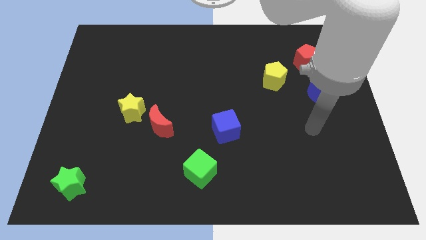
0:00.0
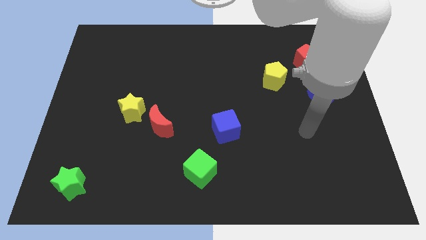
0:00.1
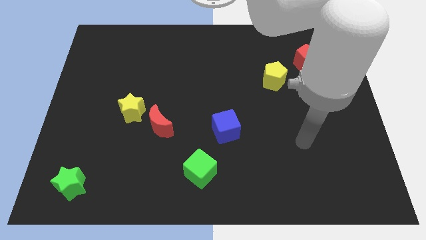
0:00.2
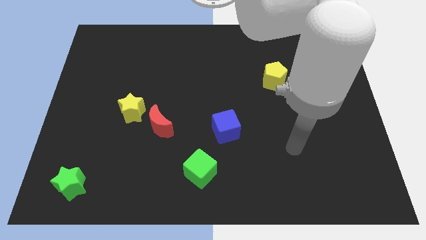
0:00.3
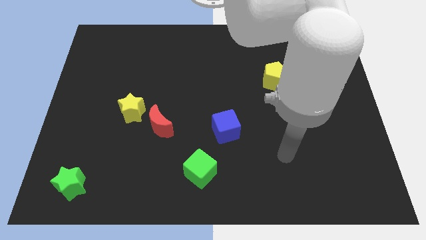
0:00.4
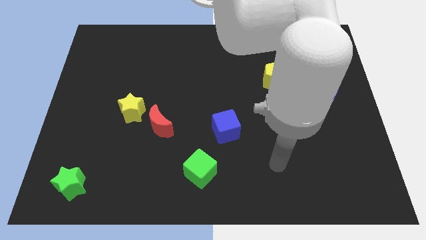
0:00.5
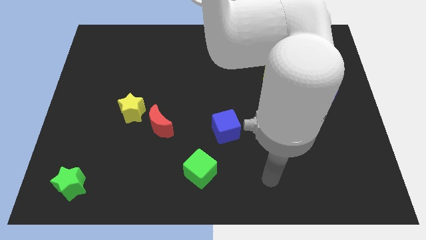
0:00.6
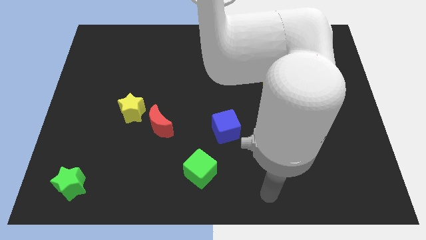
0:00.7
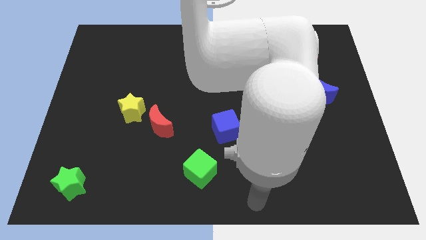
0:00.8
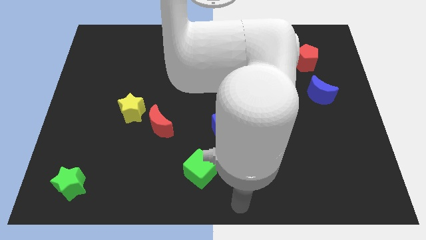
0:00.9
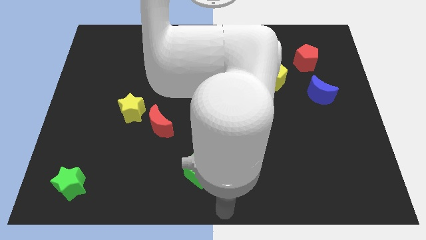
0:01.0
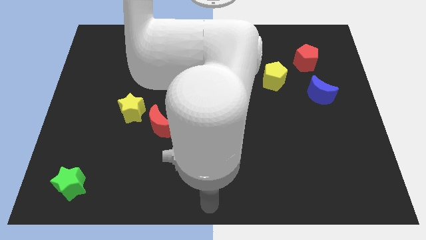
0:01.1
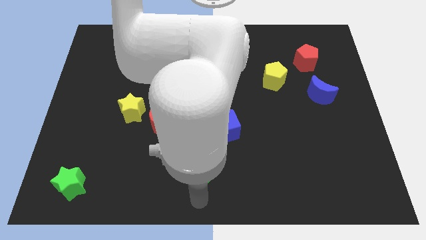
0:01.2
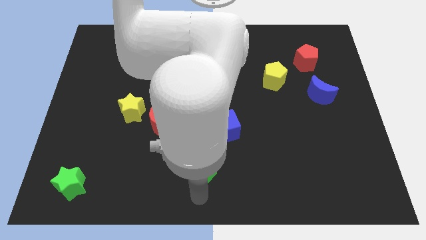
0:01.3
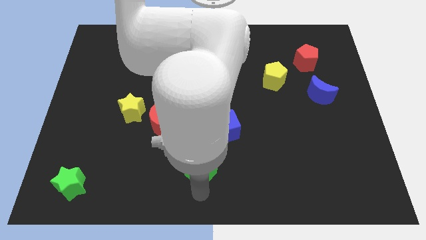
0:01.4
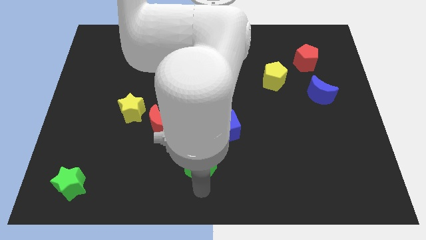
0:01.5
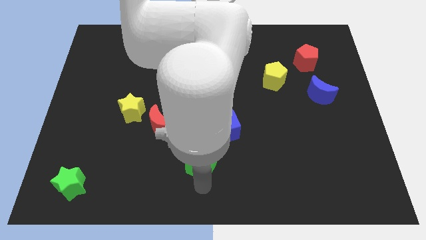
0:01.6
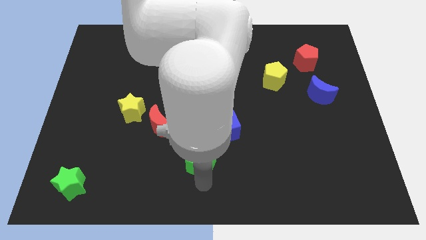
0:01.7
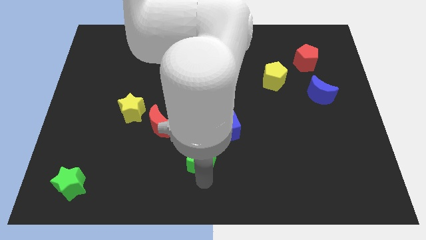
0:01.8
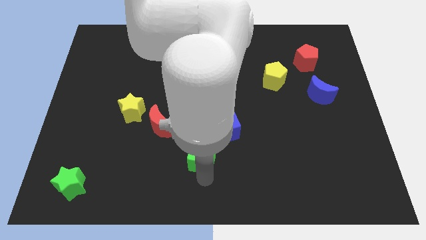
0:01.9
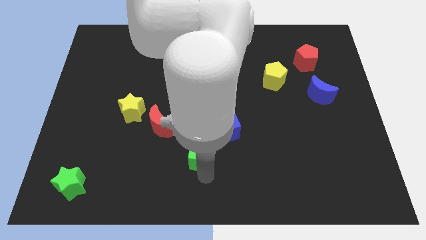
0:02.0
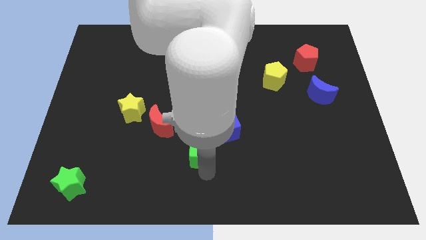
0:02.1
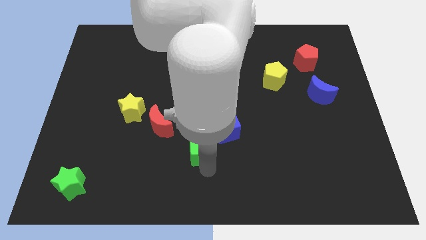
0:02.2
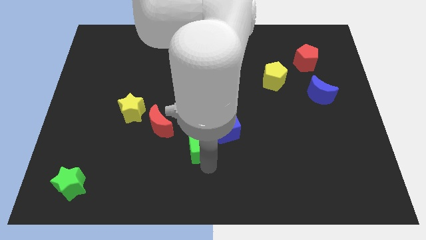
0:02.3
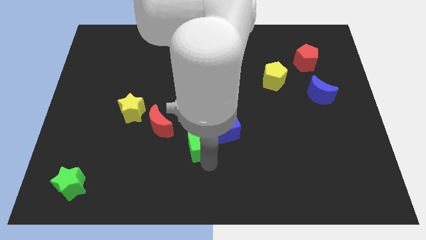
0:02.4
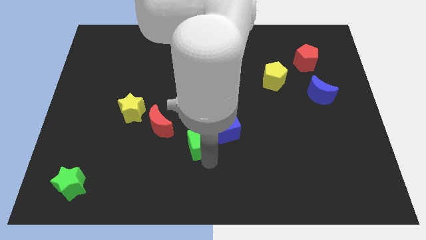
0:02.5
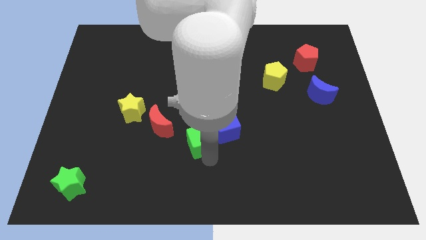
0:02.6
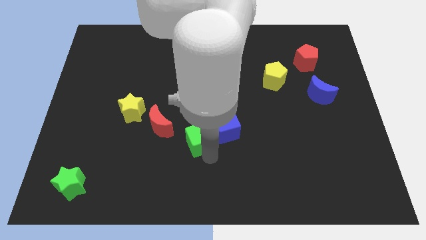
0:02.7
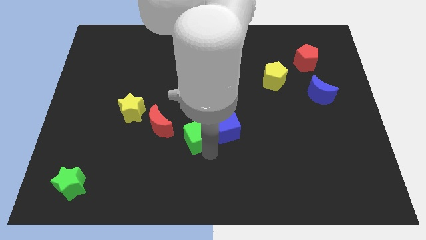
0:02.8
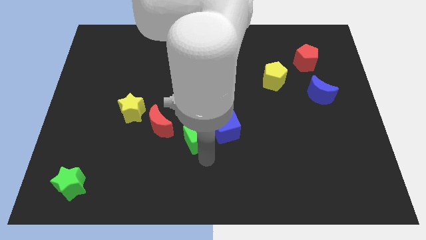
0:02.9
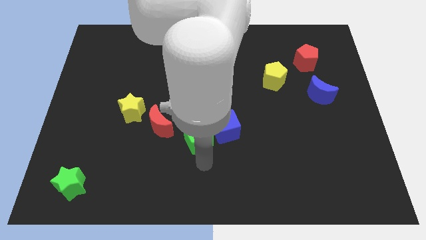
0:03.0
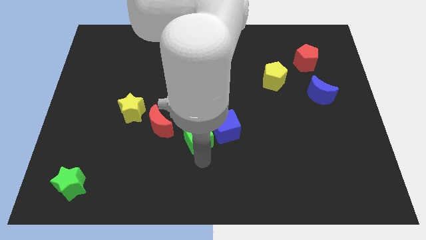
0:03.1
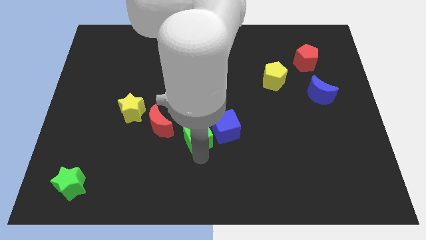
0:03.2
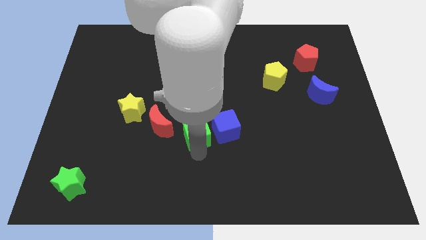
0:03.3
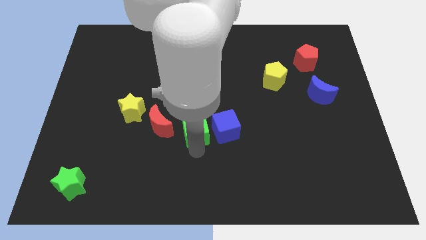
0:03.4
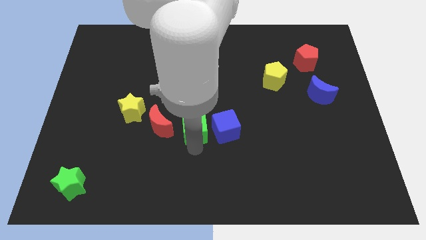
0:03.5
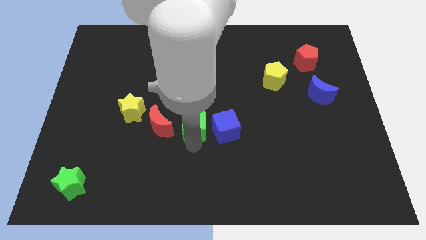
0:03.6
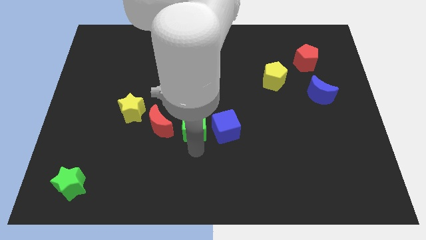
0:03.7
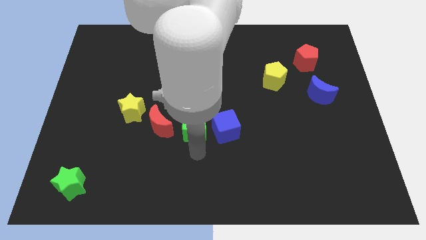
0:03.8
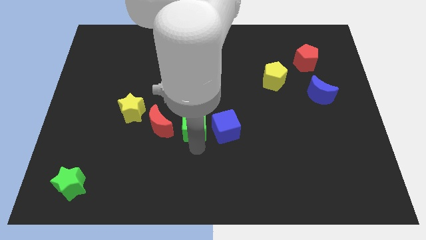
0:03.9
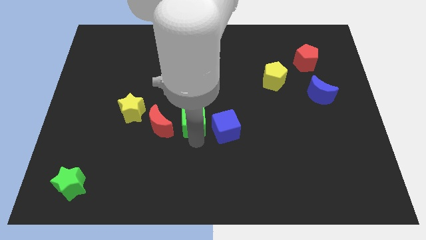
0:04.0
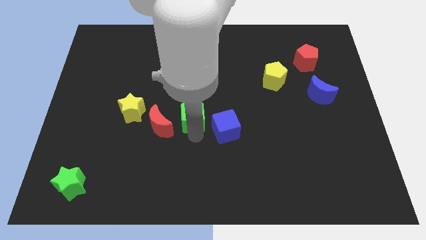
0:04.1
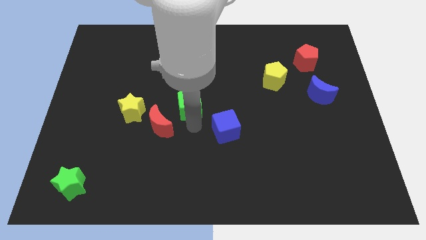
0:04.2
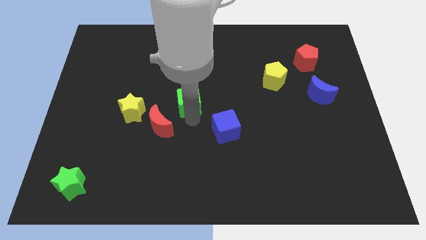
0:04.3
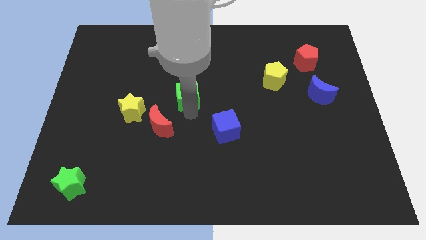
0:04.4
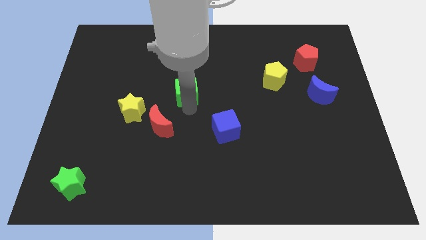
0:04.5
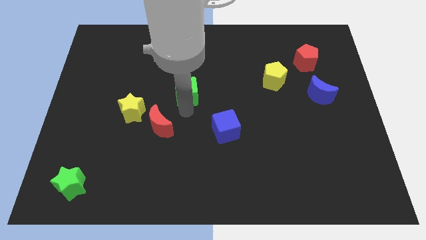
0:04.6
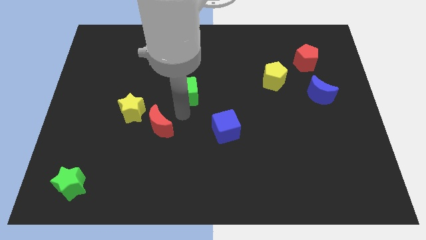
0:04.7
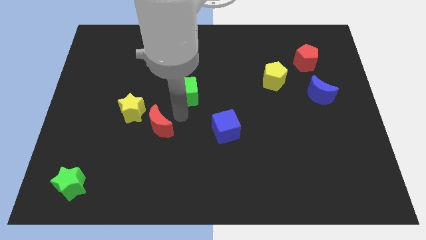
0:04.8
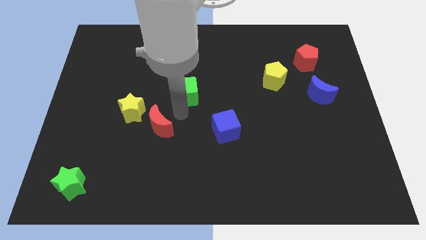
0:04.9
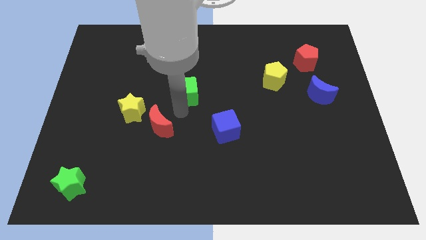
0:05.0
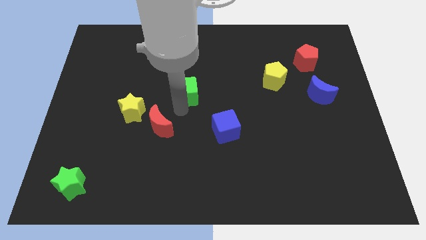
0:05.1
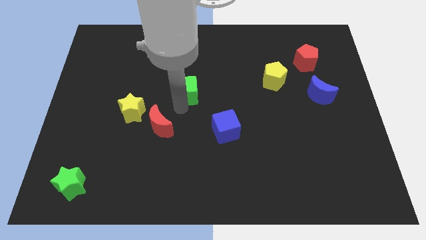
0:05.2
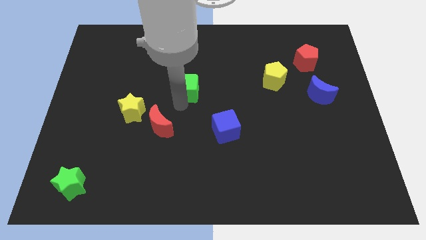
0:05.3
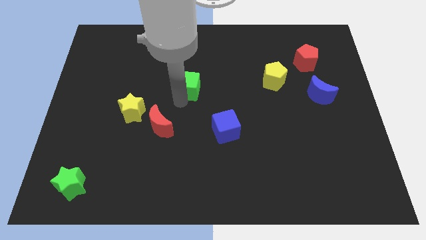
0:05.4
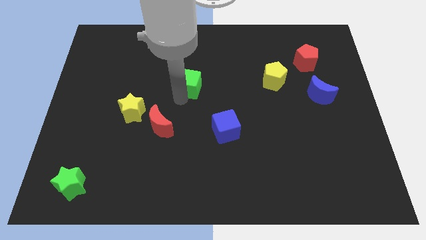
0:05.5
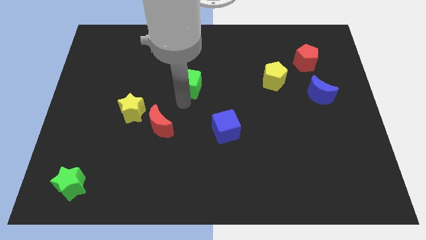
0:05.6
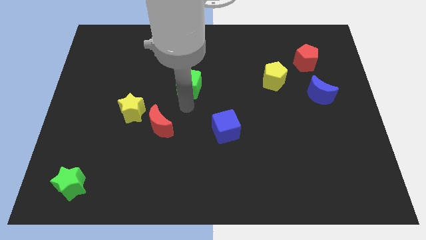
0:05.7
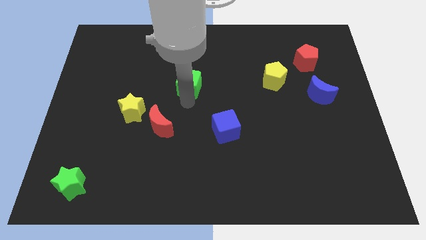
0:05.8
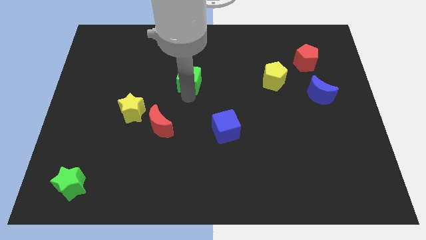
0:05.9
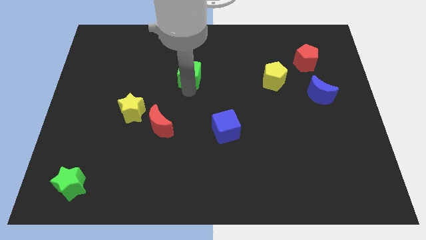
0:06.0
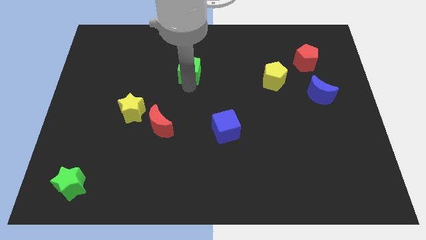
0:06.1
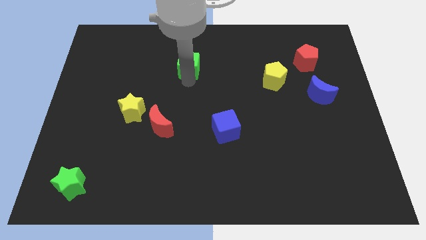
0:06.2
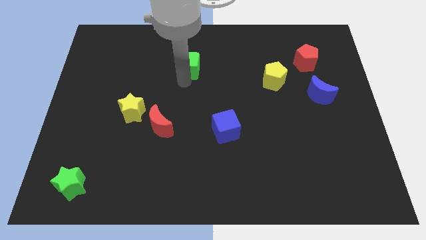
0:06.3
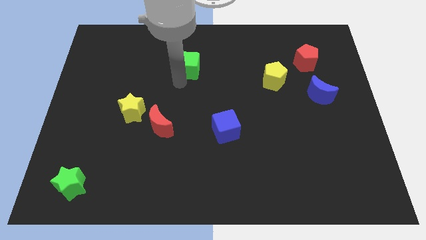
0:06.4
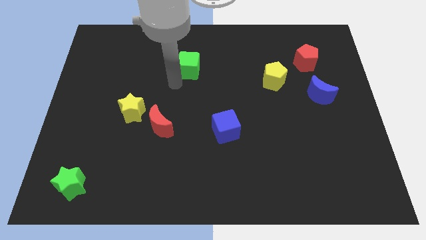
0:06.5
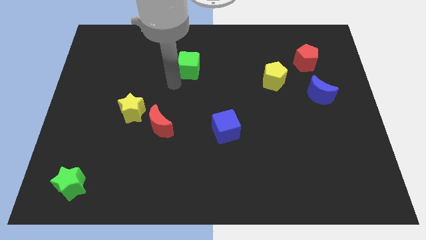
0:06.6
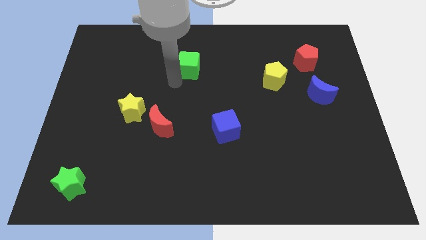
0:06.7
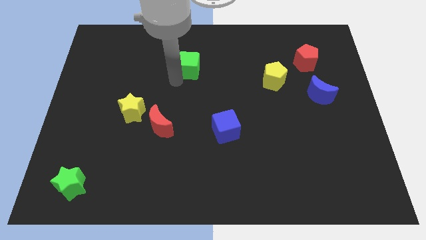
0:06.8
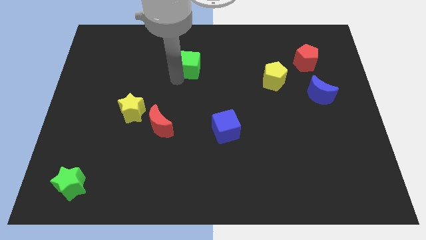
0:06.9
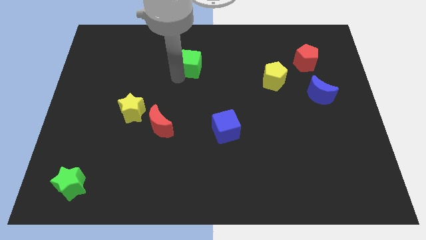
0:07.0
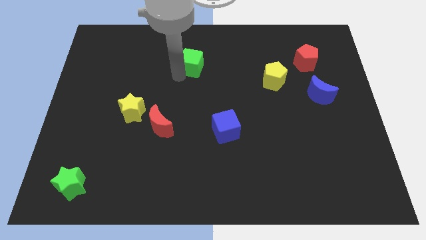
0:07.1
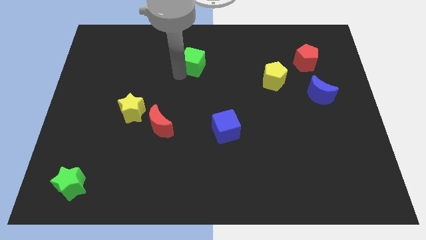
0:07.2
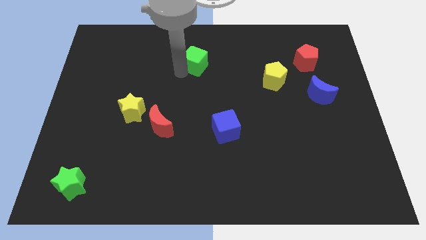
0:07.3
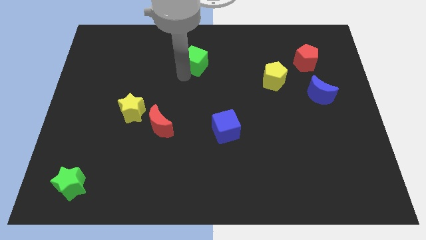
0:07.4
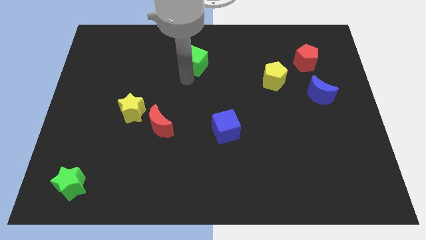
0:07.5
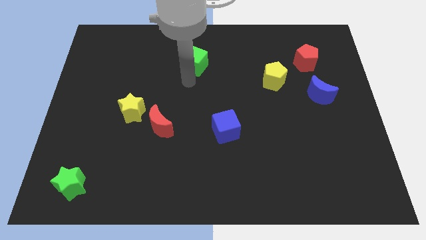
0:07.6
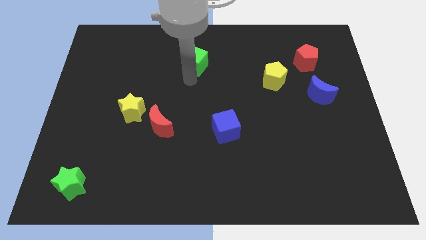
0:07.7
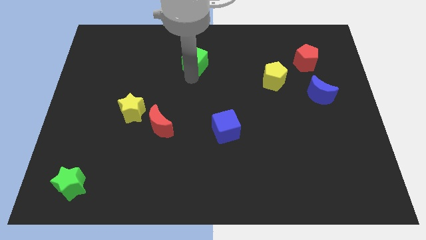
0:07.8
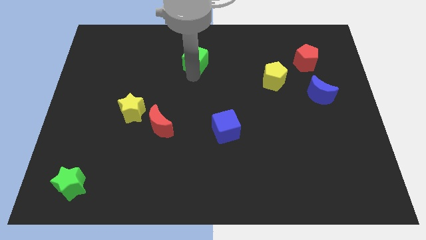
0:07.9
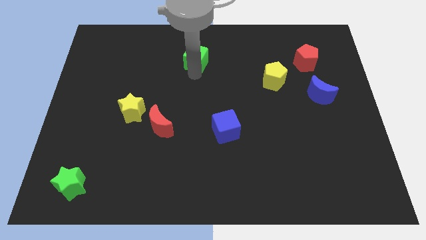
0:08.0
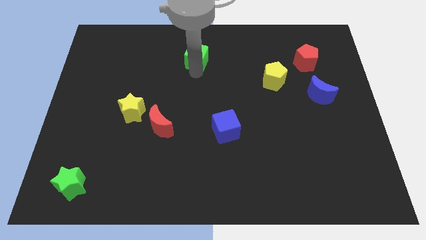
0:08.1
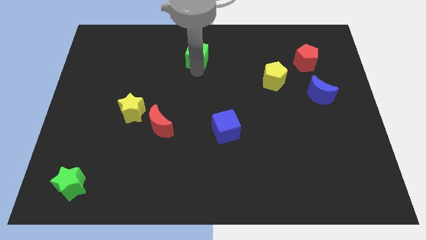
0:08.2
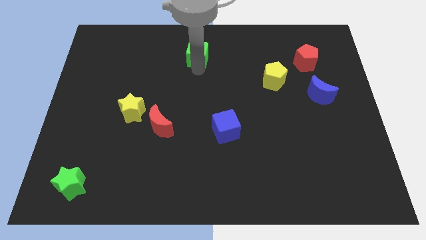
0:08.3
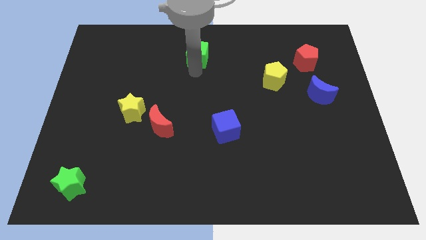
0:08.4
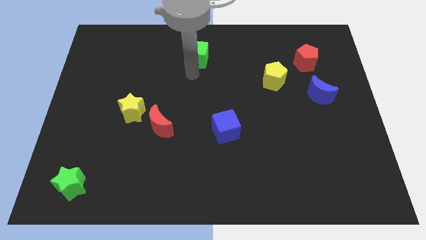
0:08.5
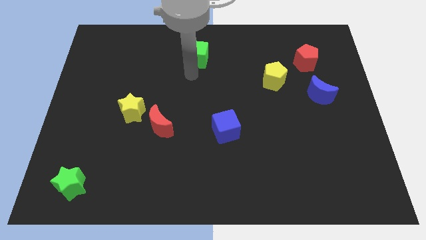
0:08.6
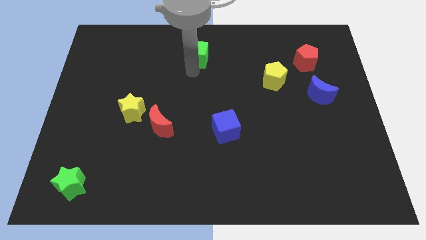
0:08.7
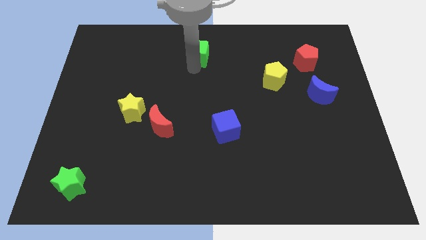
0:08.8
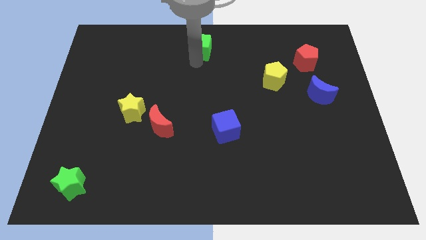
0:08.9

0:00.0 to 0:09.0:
slide the green cube to the top
